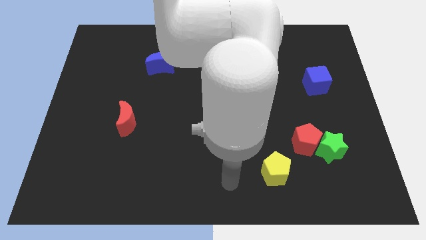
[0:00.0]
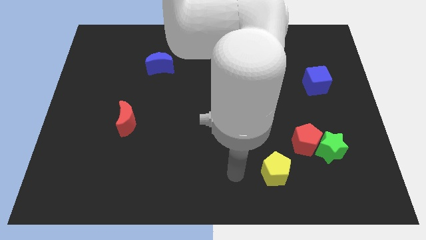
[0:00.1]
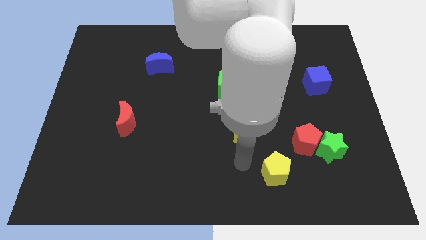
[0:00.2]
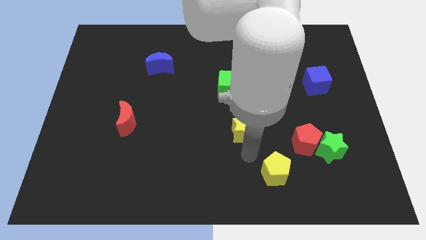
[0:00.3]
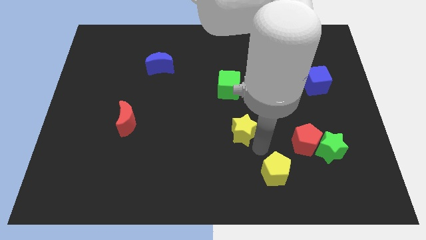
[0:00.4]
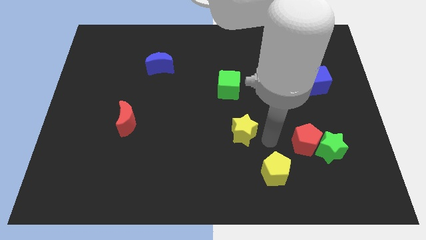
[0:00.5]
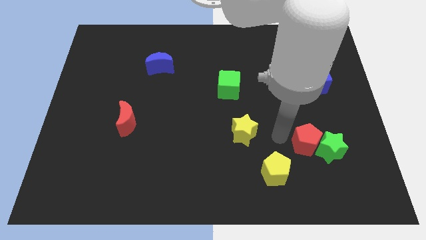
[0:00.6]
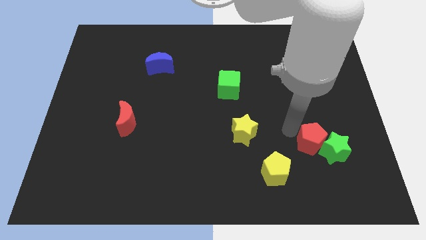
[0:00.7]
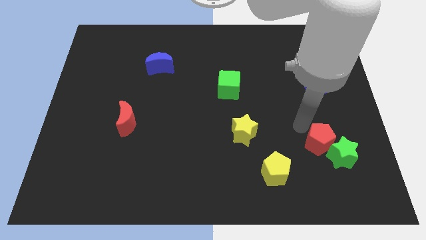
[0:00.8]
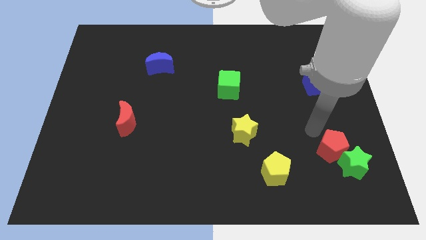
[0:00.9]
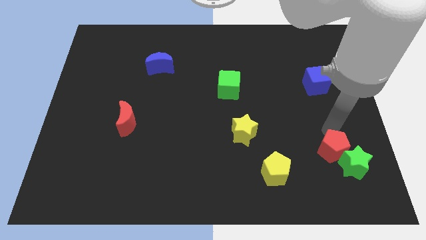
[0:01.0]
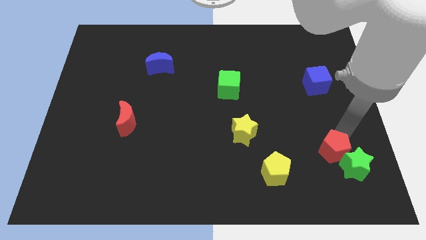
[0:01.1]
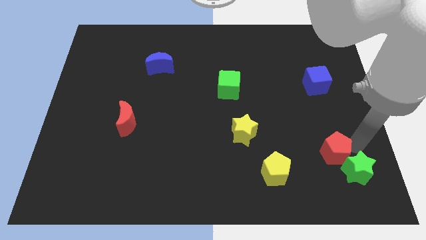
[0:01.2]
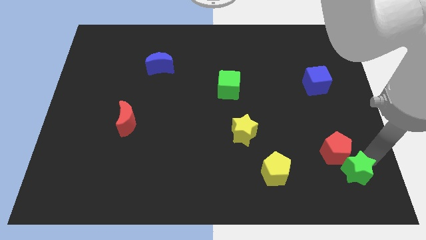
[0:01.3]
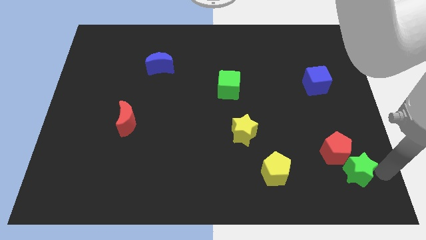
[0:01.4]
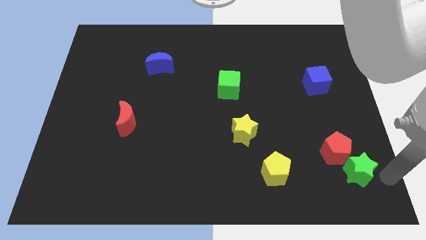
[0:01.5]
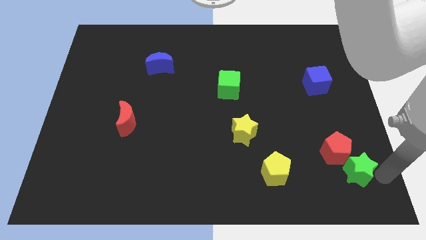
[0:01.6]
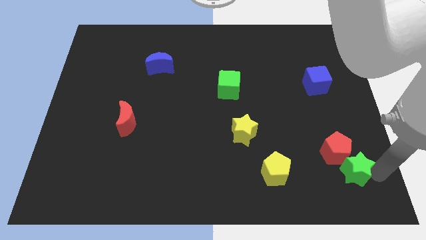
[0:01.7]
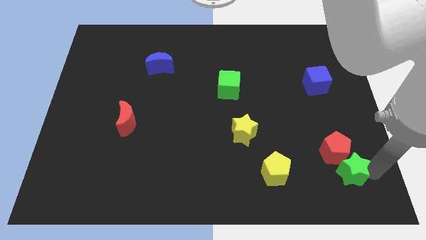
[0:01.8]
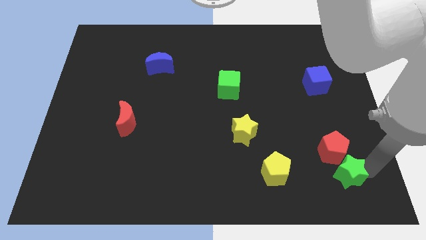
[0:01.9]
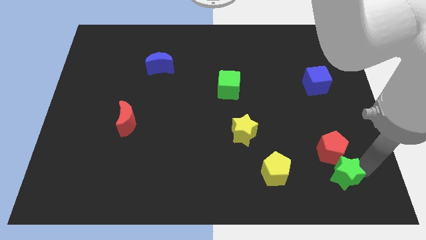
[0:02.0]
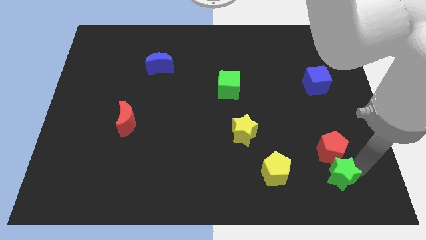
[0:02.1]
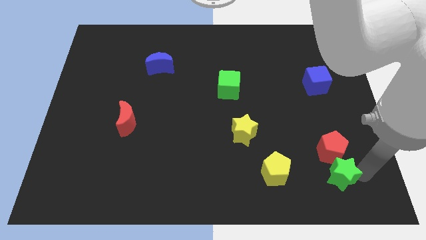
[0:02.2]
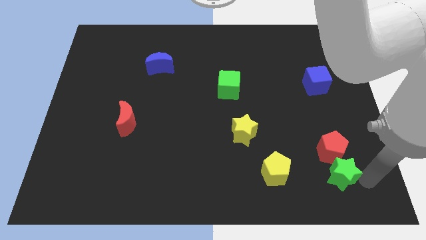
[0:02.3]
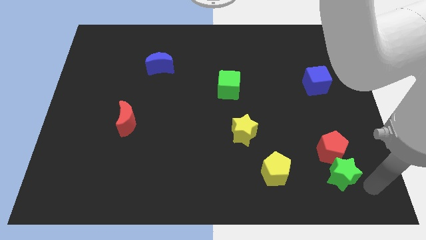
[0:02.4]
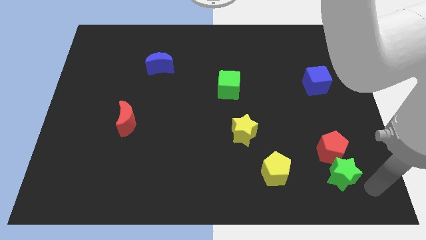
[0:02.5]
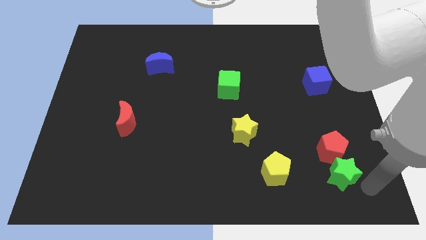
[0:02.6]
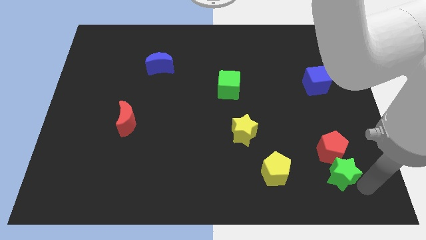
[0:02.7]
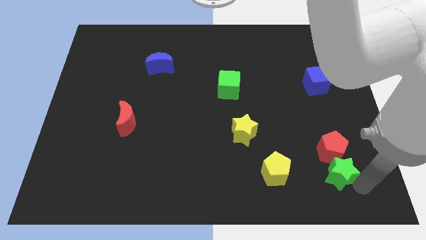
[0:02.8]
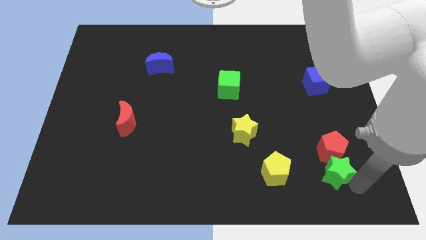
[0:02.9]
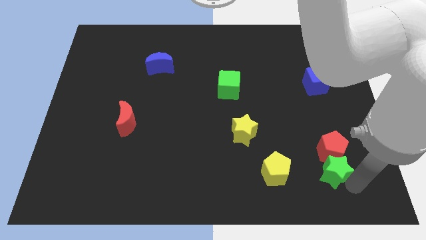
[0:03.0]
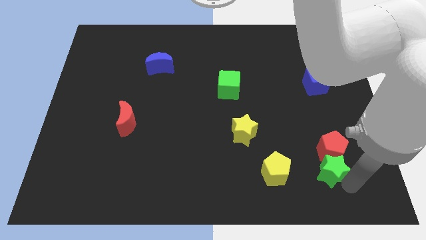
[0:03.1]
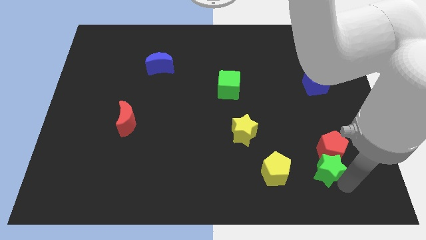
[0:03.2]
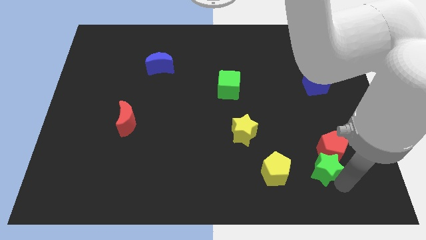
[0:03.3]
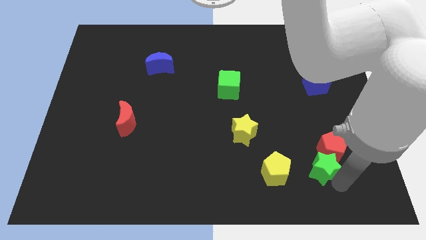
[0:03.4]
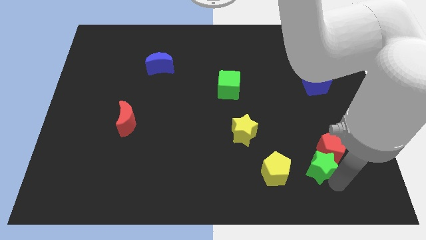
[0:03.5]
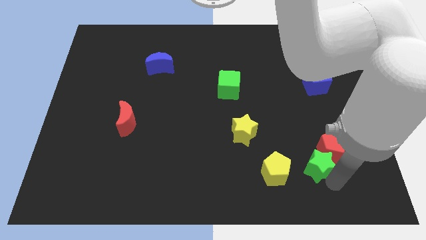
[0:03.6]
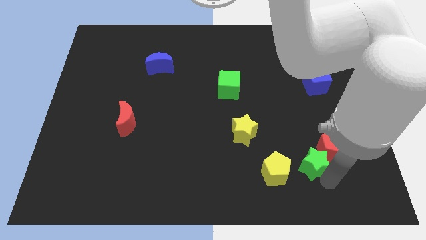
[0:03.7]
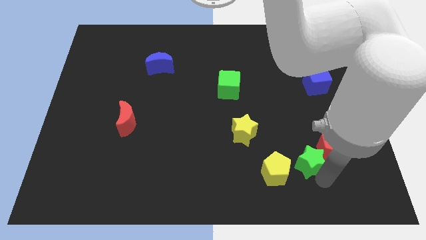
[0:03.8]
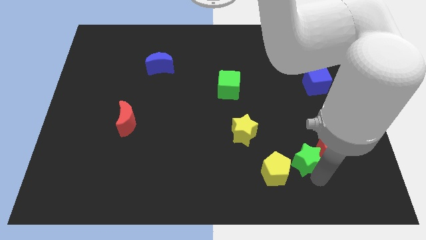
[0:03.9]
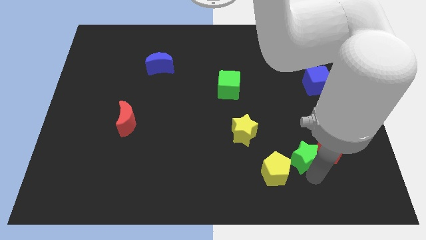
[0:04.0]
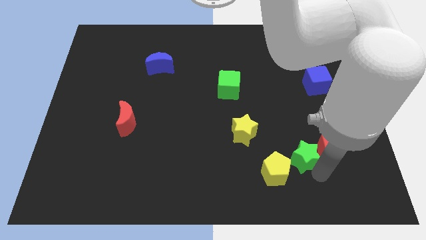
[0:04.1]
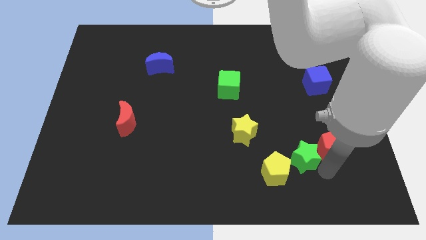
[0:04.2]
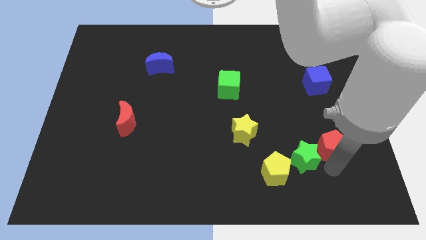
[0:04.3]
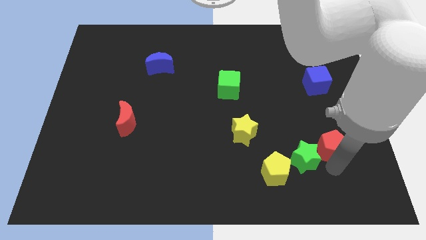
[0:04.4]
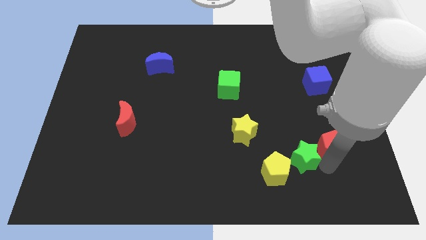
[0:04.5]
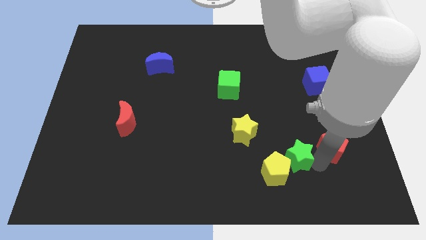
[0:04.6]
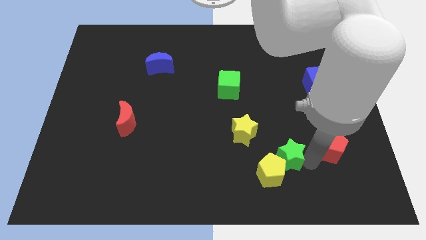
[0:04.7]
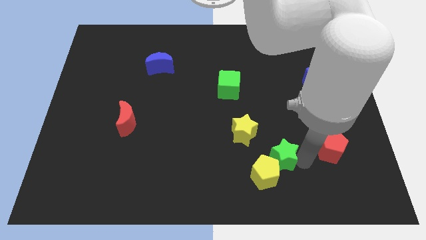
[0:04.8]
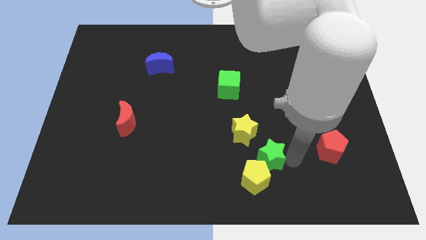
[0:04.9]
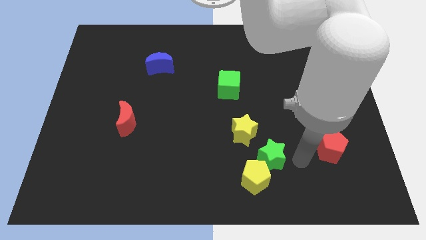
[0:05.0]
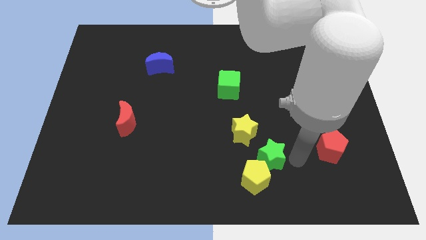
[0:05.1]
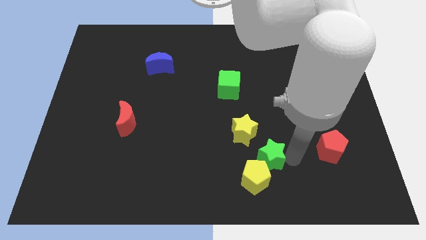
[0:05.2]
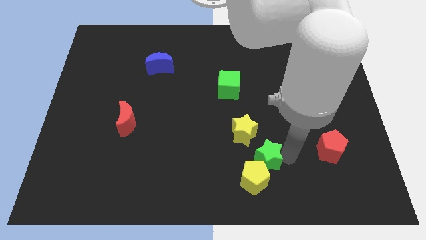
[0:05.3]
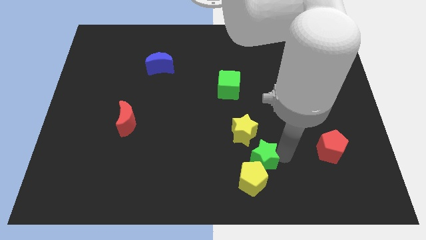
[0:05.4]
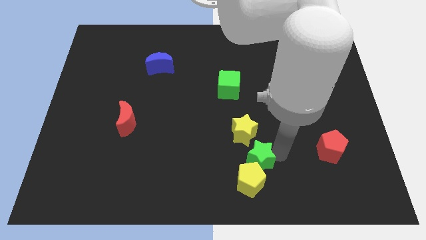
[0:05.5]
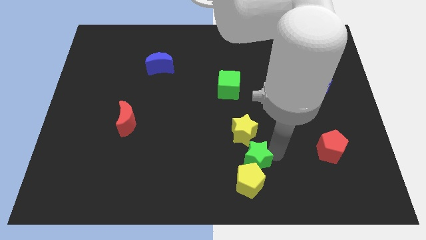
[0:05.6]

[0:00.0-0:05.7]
slide the green star to the top left side of the yellow pentagon

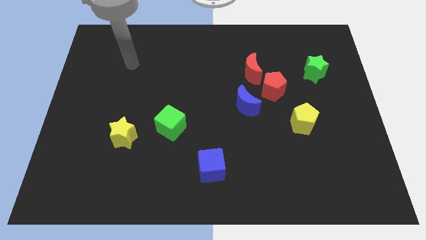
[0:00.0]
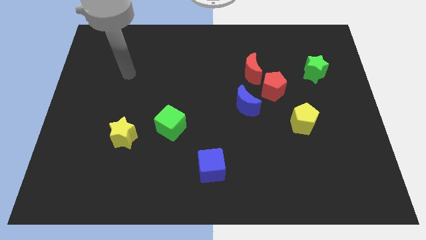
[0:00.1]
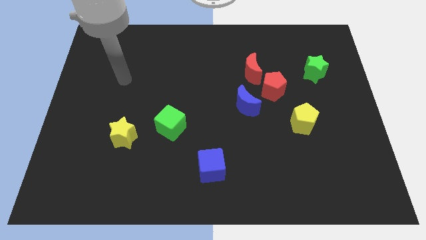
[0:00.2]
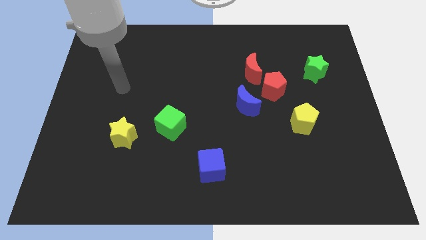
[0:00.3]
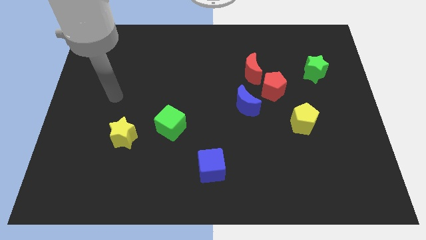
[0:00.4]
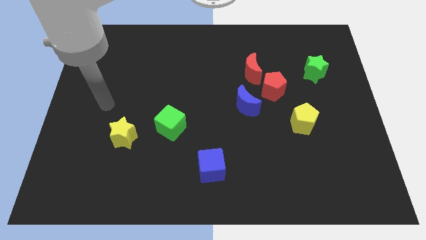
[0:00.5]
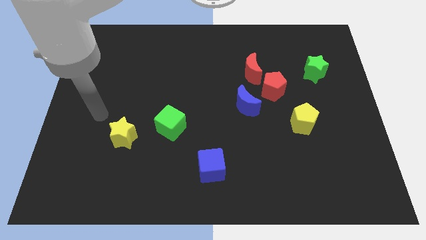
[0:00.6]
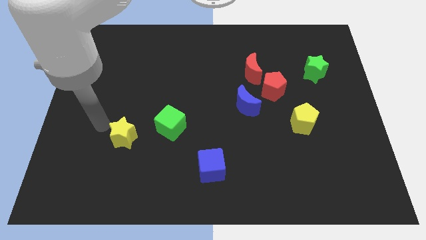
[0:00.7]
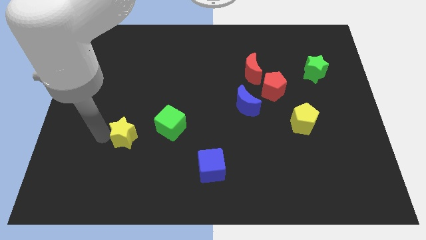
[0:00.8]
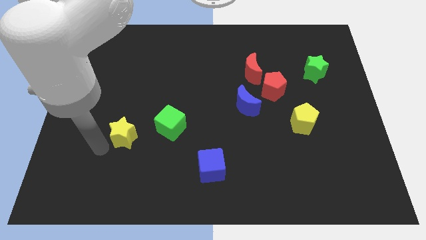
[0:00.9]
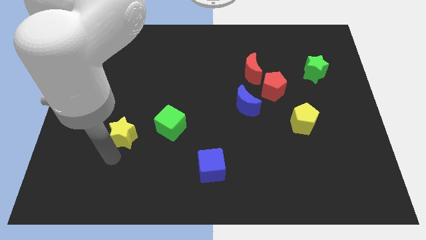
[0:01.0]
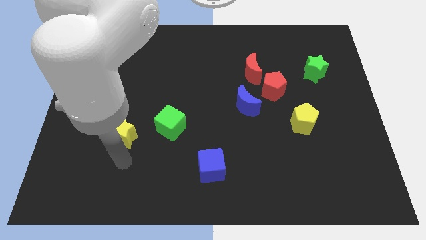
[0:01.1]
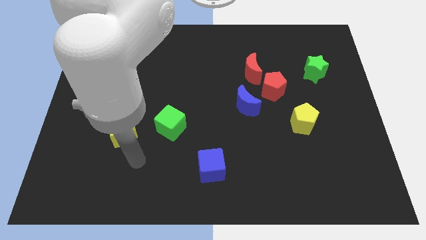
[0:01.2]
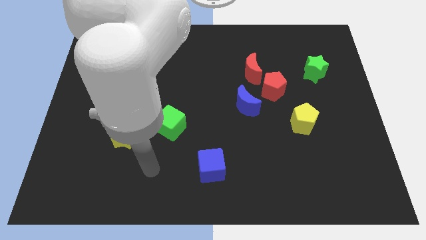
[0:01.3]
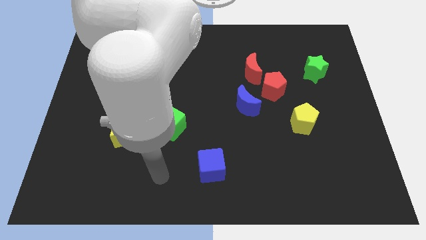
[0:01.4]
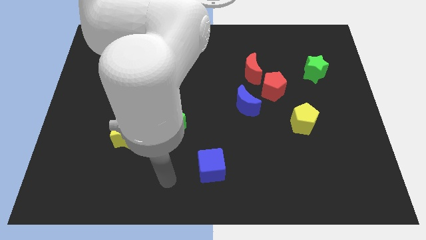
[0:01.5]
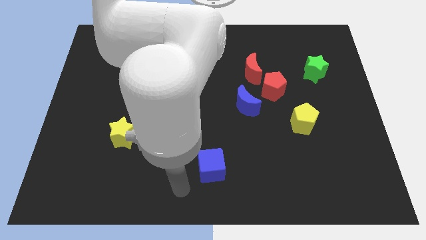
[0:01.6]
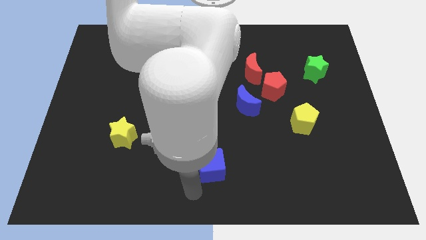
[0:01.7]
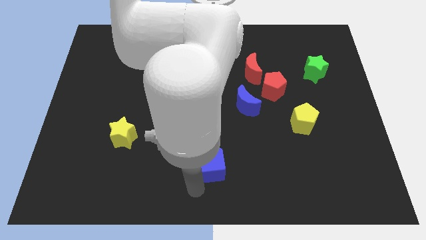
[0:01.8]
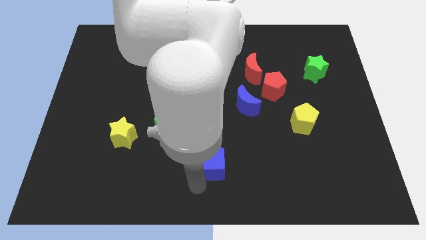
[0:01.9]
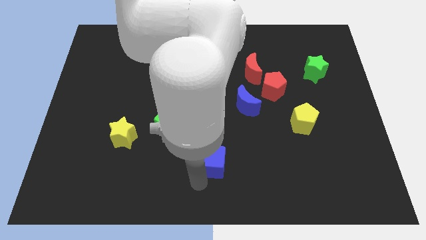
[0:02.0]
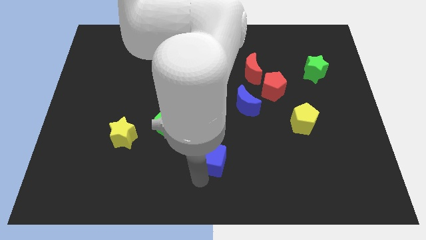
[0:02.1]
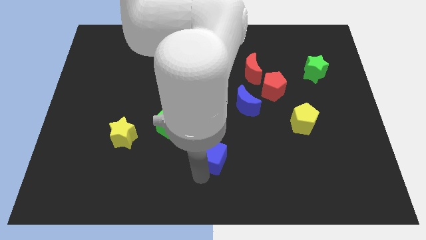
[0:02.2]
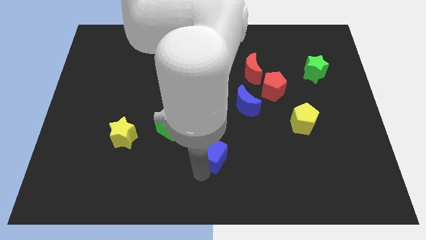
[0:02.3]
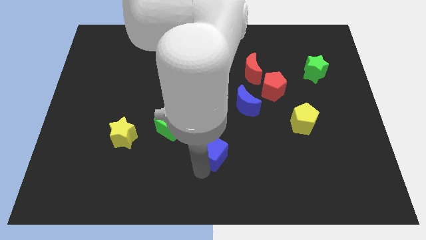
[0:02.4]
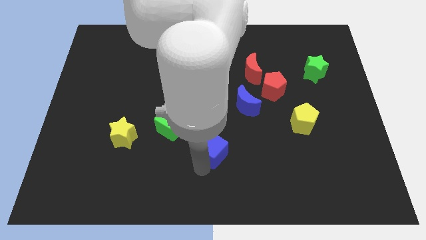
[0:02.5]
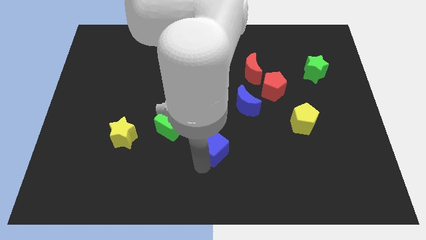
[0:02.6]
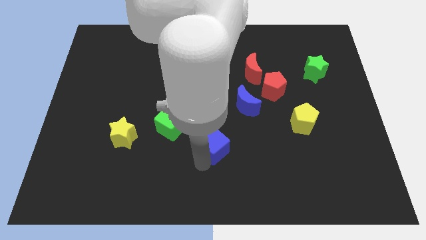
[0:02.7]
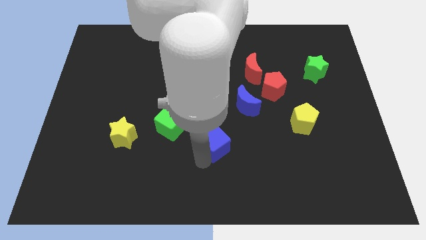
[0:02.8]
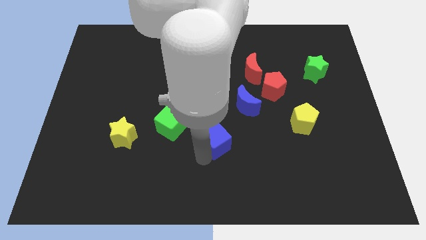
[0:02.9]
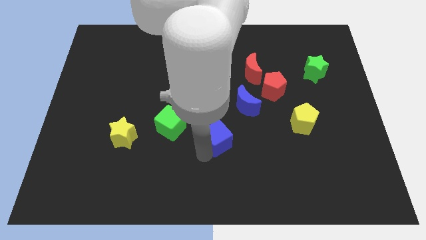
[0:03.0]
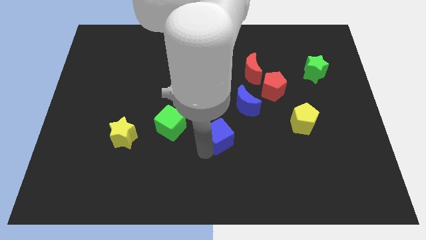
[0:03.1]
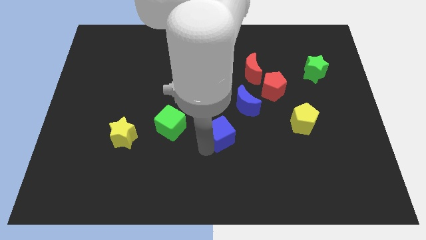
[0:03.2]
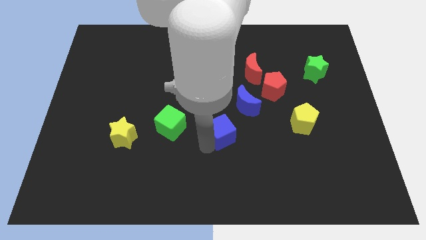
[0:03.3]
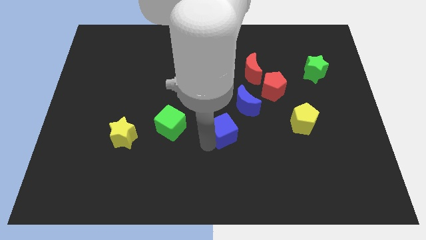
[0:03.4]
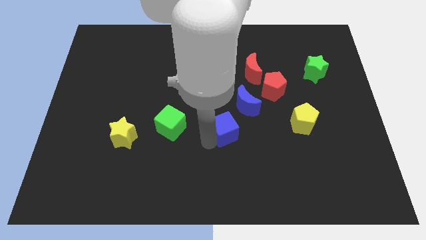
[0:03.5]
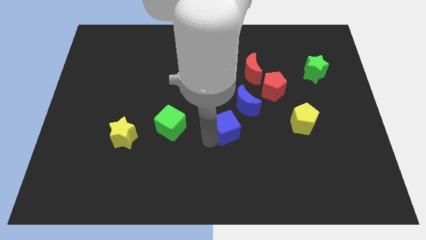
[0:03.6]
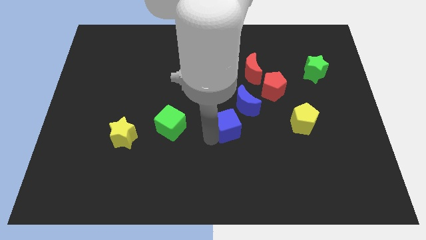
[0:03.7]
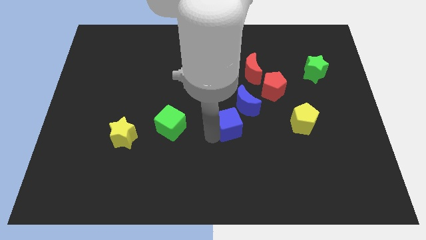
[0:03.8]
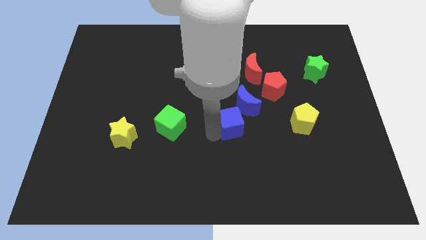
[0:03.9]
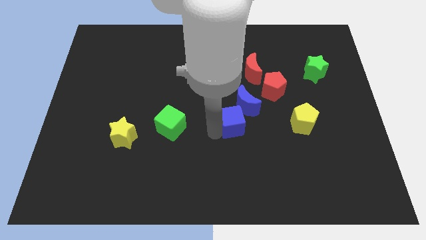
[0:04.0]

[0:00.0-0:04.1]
push the blue cube to the left side of the yellow pentagon
